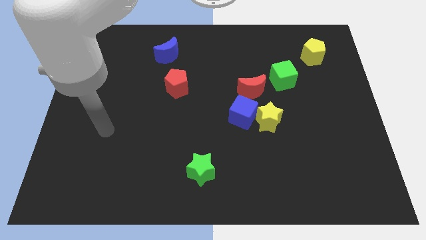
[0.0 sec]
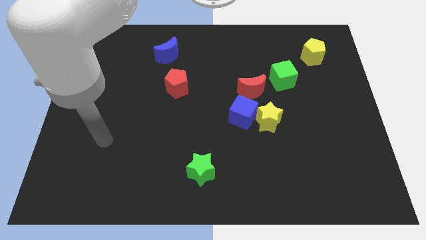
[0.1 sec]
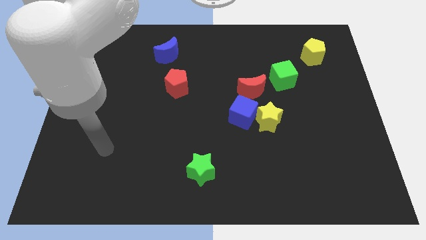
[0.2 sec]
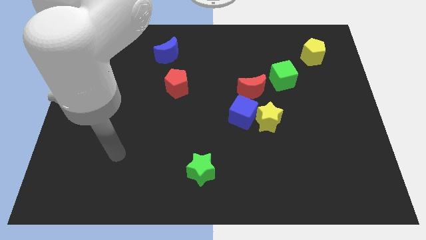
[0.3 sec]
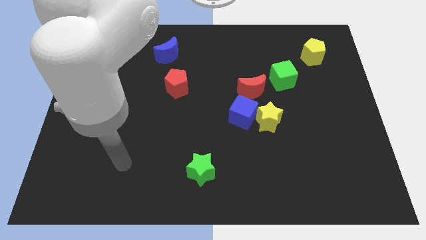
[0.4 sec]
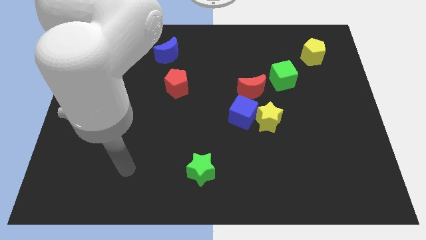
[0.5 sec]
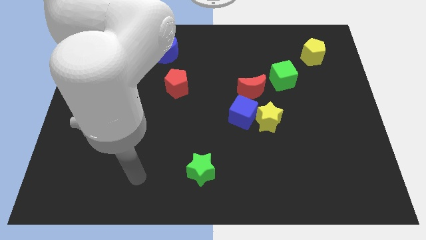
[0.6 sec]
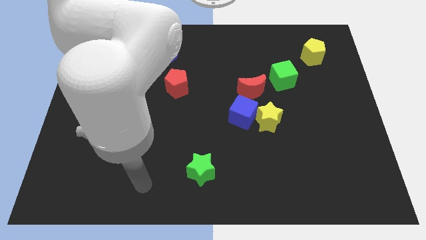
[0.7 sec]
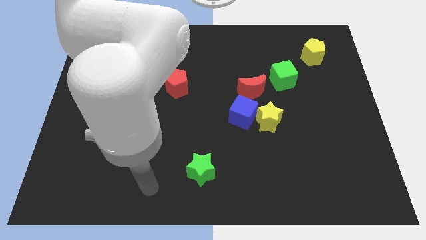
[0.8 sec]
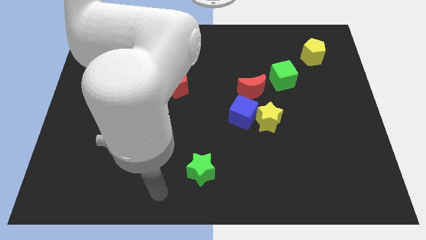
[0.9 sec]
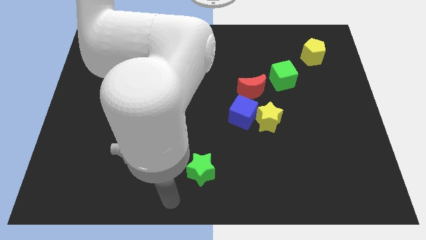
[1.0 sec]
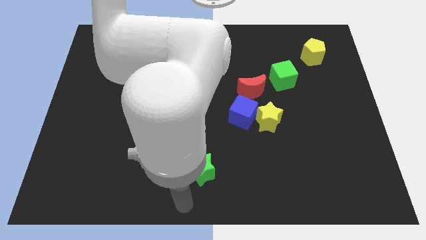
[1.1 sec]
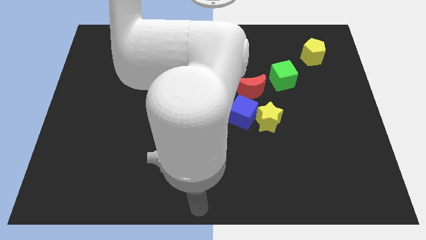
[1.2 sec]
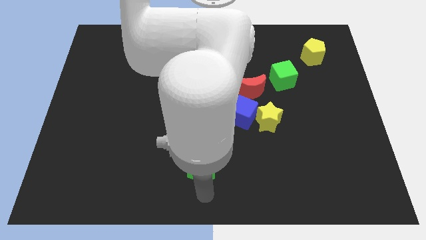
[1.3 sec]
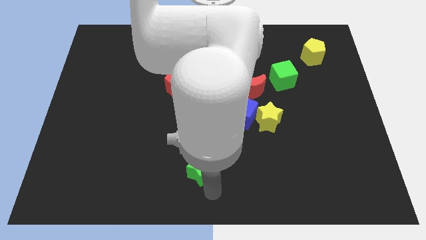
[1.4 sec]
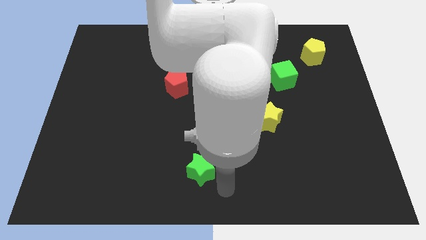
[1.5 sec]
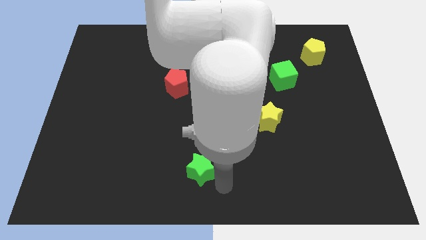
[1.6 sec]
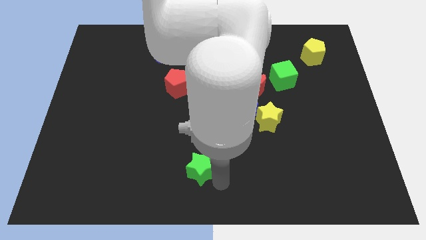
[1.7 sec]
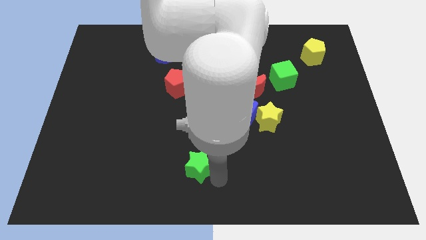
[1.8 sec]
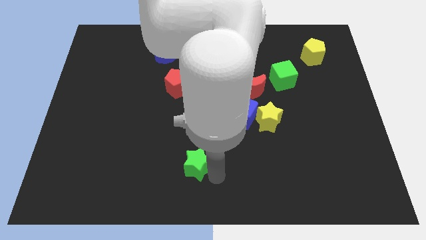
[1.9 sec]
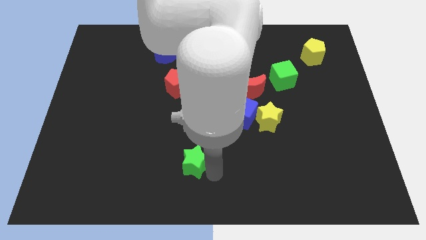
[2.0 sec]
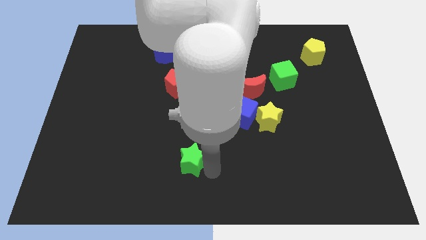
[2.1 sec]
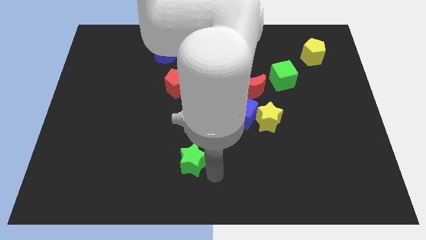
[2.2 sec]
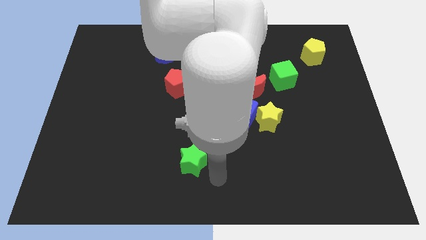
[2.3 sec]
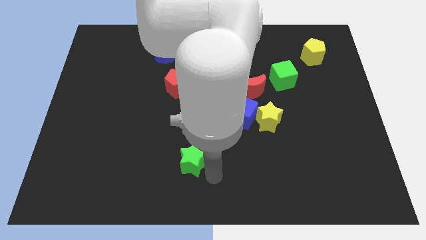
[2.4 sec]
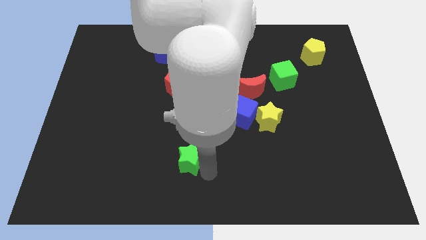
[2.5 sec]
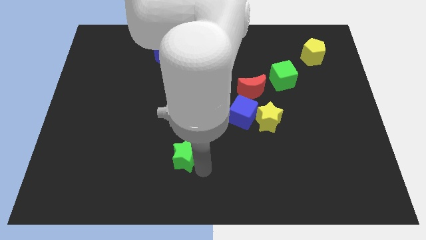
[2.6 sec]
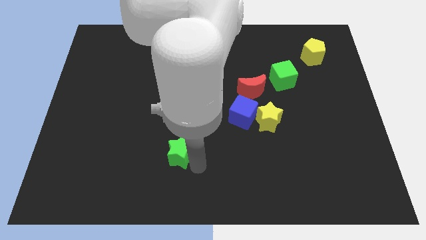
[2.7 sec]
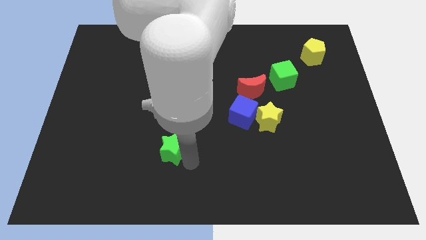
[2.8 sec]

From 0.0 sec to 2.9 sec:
slightly move the green star up and left diagonally

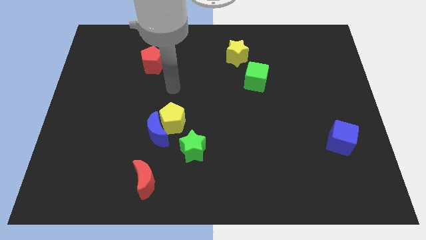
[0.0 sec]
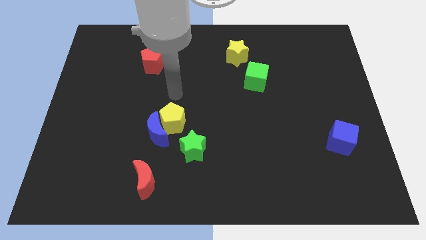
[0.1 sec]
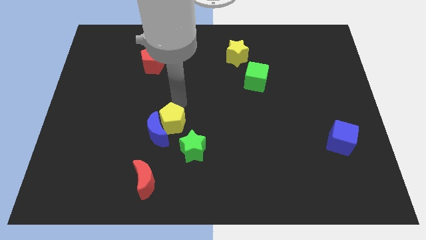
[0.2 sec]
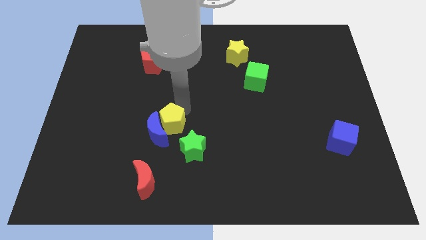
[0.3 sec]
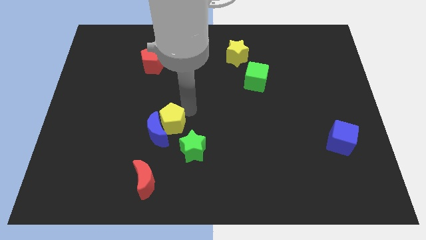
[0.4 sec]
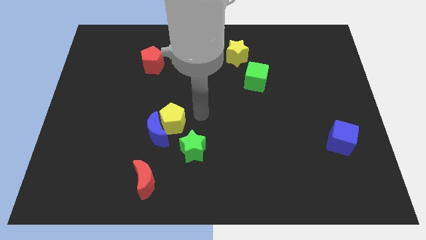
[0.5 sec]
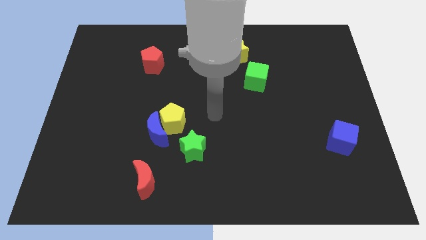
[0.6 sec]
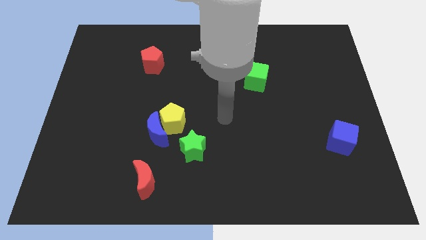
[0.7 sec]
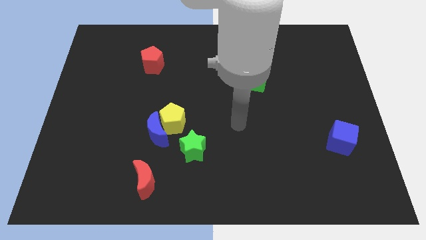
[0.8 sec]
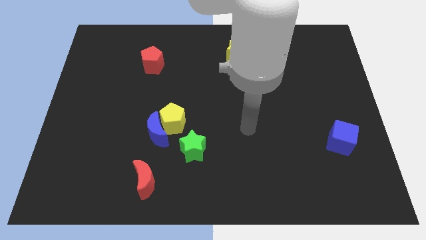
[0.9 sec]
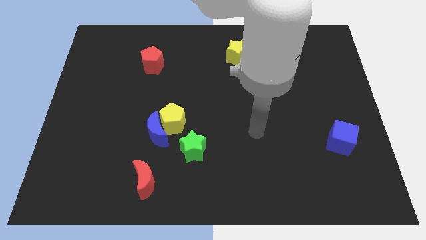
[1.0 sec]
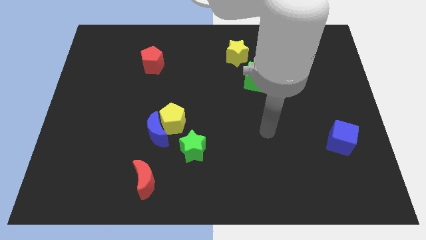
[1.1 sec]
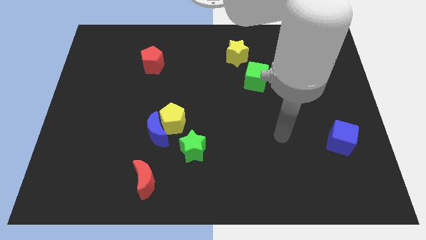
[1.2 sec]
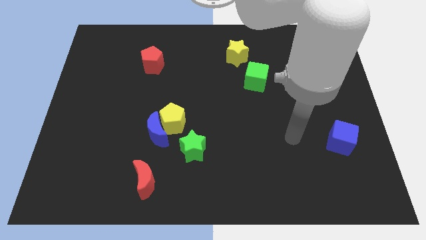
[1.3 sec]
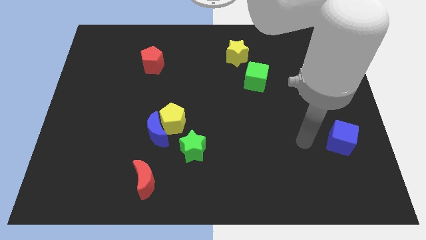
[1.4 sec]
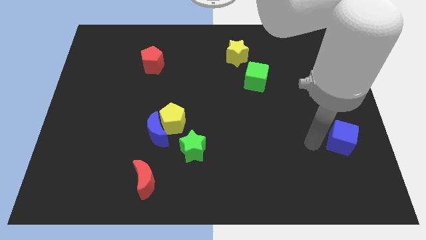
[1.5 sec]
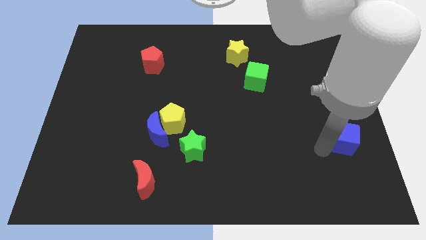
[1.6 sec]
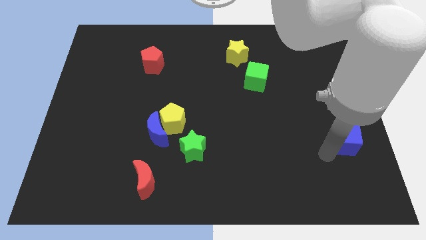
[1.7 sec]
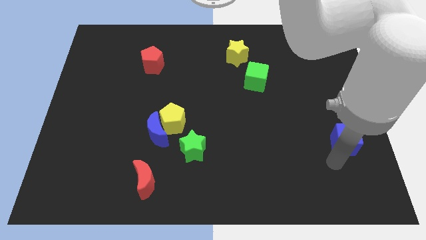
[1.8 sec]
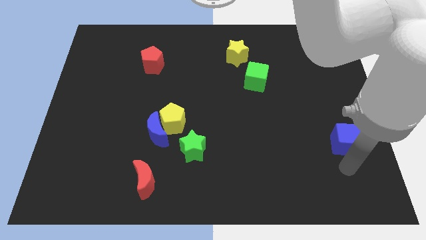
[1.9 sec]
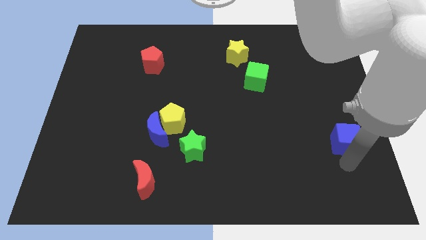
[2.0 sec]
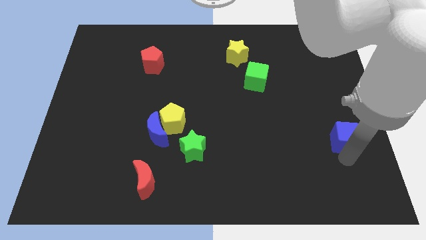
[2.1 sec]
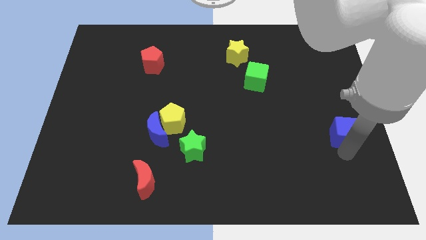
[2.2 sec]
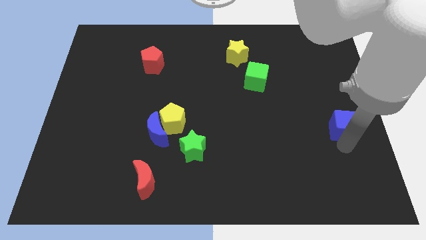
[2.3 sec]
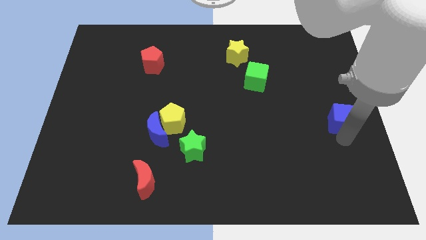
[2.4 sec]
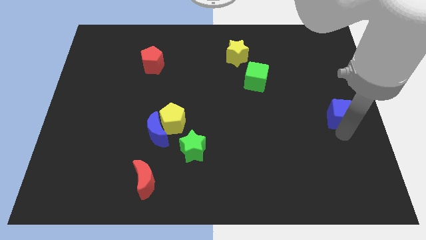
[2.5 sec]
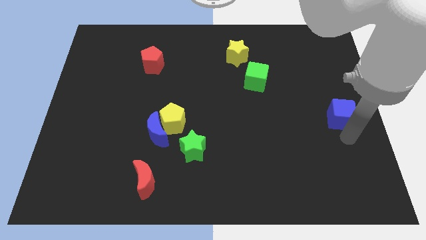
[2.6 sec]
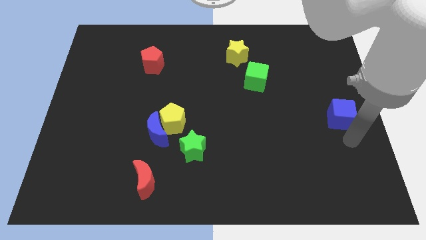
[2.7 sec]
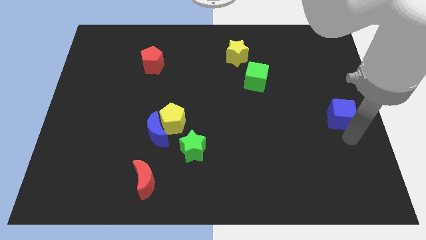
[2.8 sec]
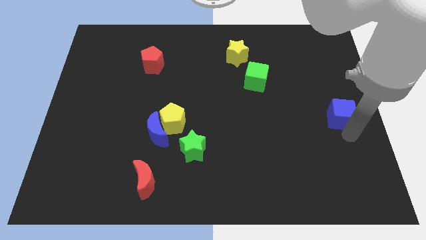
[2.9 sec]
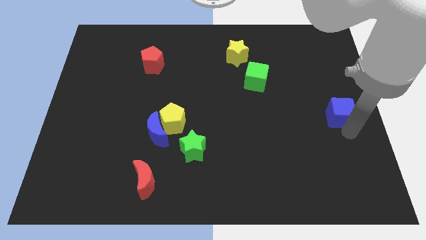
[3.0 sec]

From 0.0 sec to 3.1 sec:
slide the blue cube up somewhat

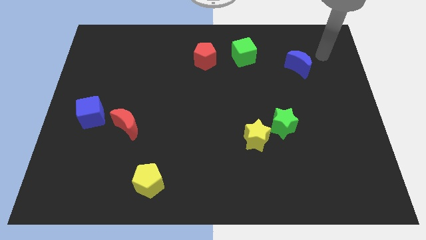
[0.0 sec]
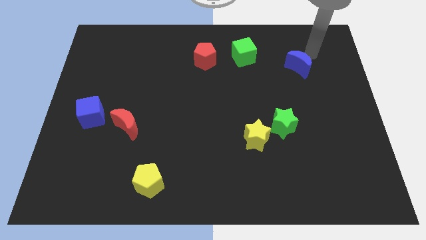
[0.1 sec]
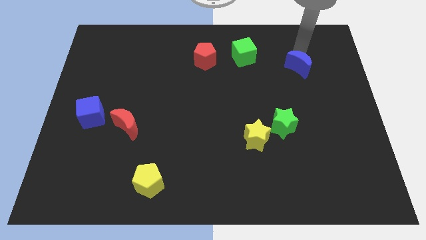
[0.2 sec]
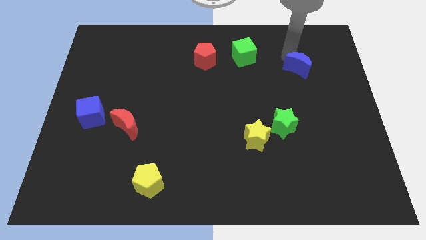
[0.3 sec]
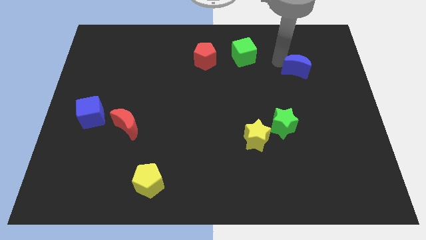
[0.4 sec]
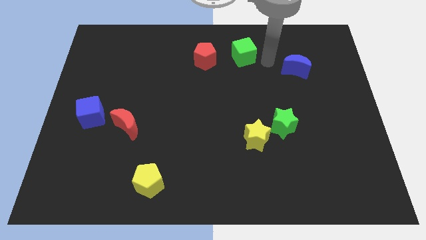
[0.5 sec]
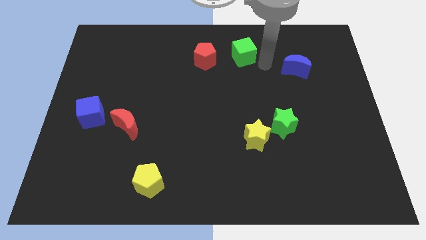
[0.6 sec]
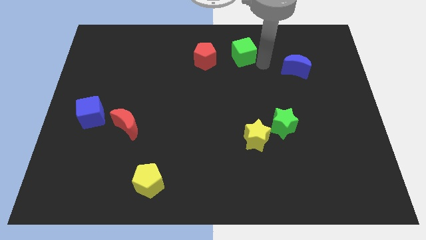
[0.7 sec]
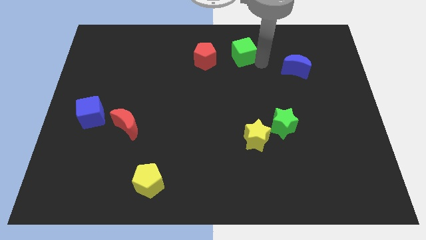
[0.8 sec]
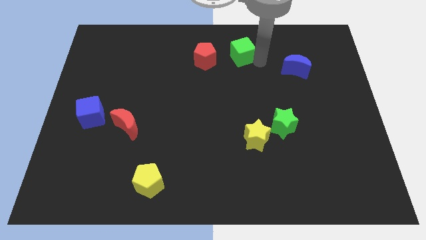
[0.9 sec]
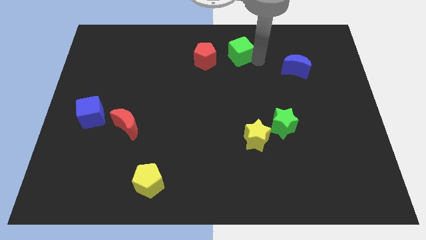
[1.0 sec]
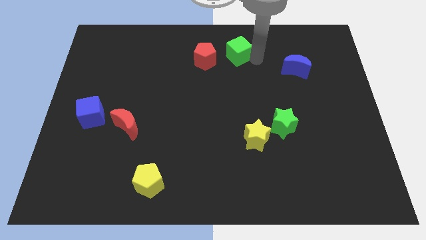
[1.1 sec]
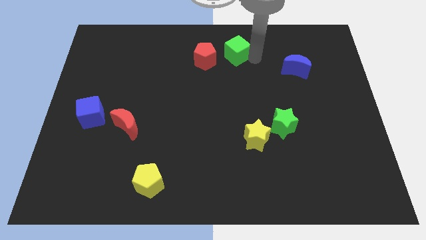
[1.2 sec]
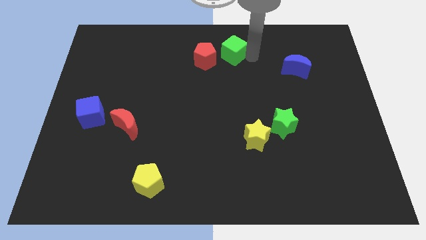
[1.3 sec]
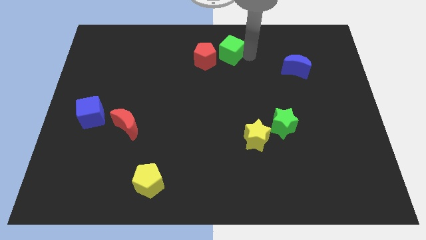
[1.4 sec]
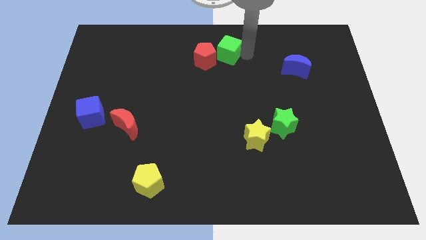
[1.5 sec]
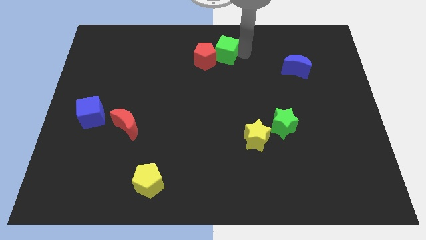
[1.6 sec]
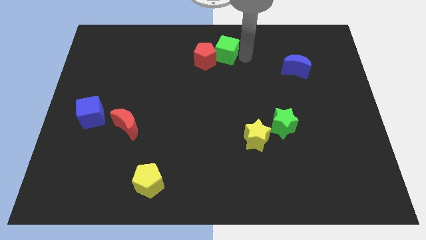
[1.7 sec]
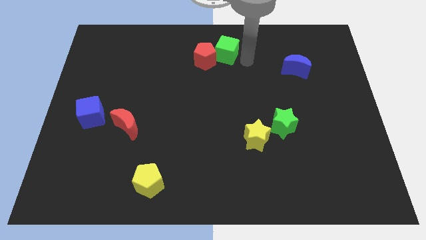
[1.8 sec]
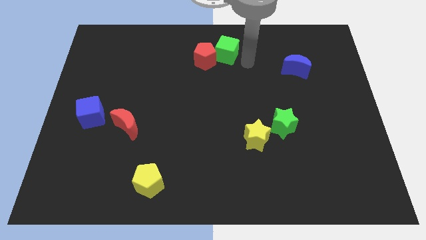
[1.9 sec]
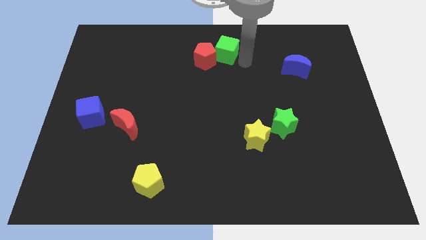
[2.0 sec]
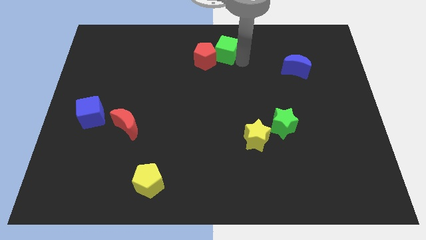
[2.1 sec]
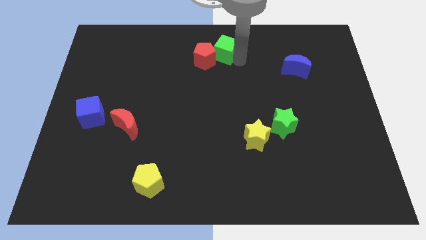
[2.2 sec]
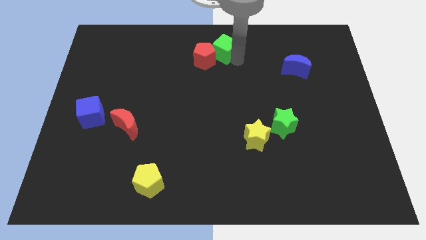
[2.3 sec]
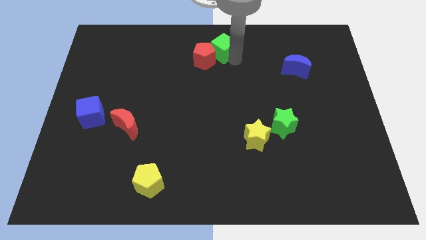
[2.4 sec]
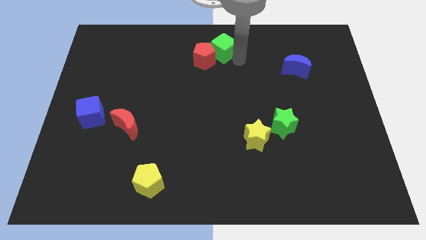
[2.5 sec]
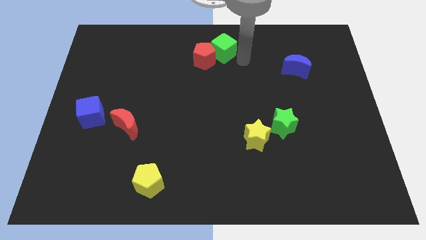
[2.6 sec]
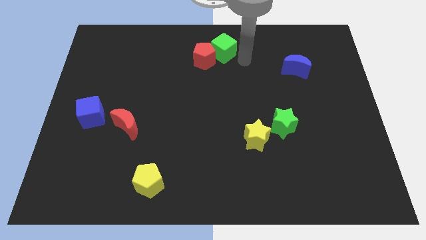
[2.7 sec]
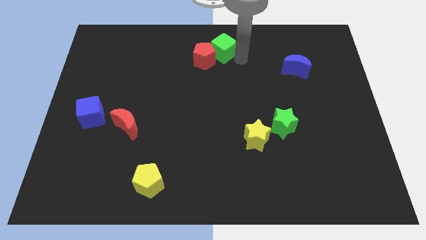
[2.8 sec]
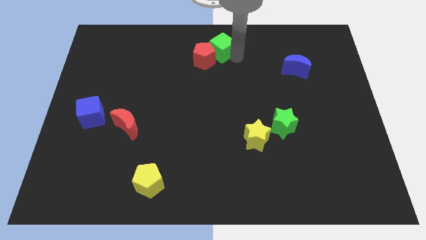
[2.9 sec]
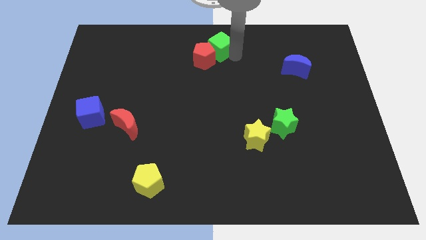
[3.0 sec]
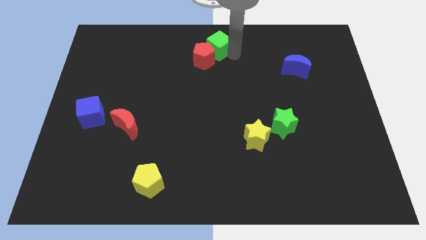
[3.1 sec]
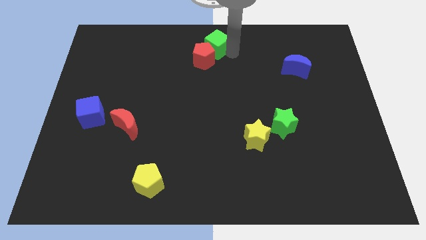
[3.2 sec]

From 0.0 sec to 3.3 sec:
slightly move the green cube to the left
